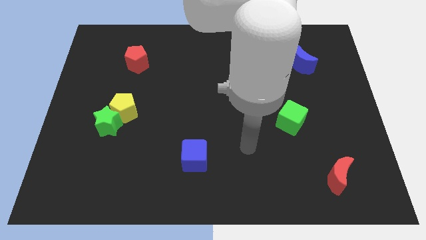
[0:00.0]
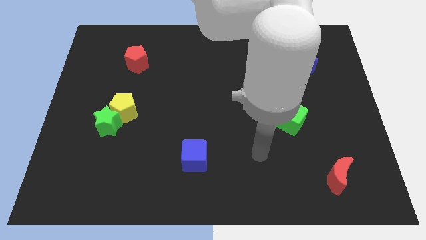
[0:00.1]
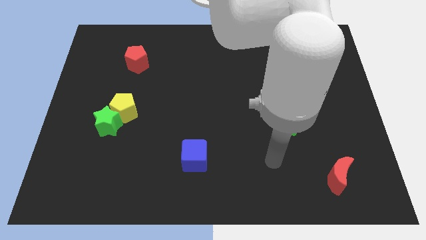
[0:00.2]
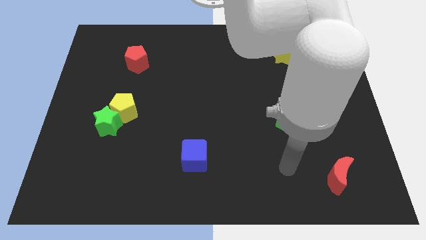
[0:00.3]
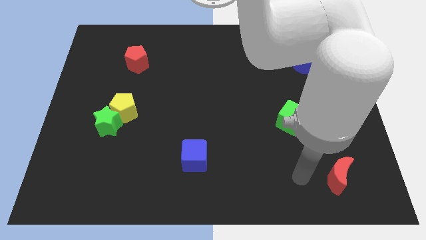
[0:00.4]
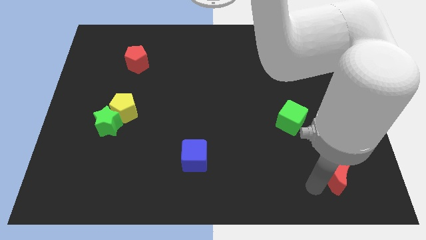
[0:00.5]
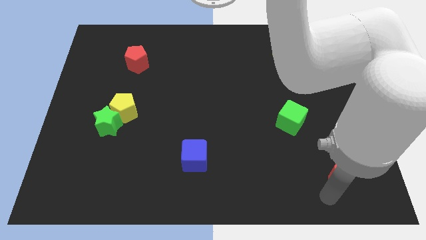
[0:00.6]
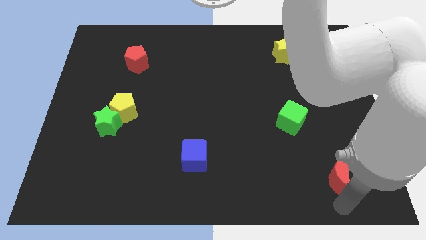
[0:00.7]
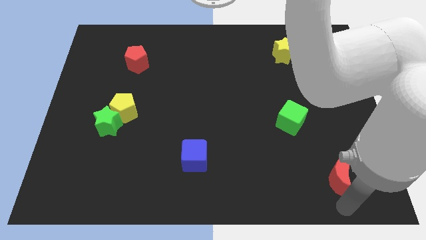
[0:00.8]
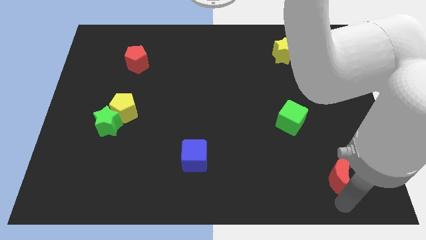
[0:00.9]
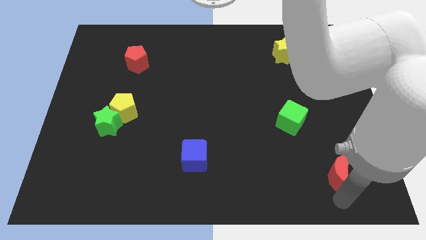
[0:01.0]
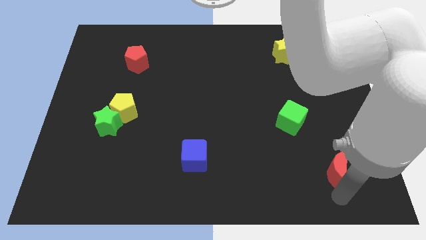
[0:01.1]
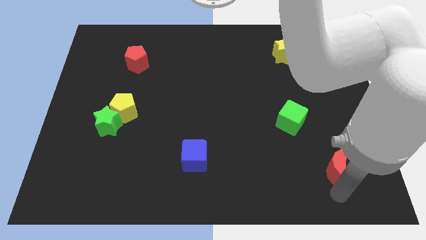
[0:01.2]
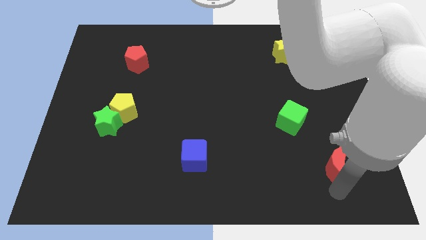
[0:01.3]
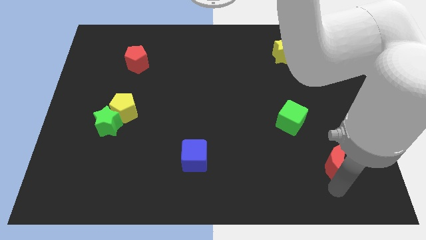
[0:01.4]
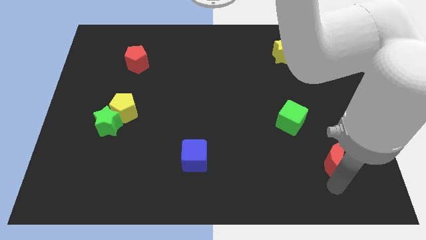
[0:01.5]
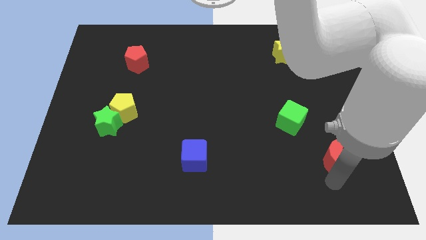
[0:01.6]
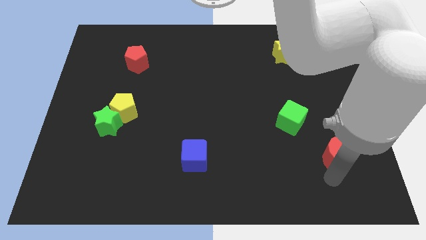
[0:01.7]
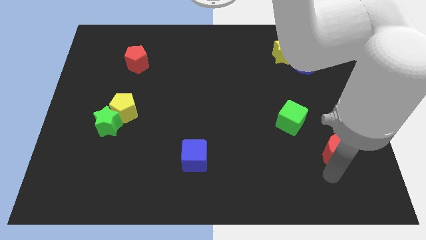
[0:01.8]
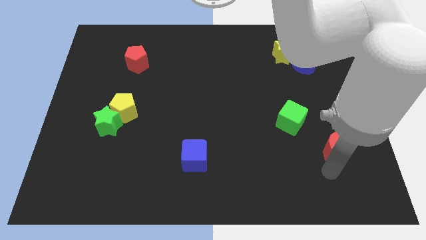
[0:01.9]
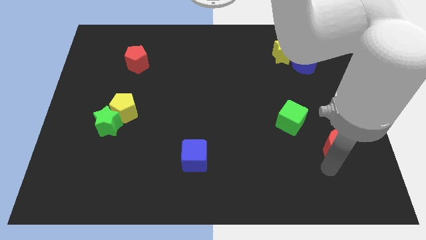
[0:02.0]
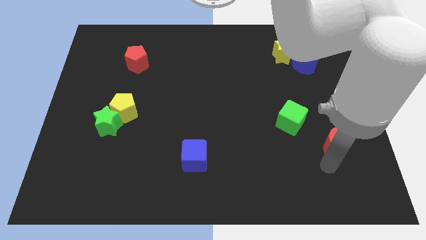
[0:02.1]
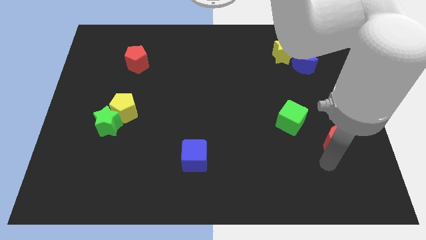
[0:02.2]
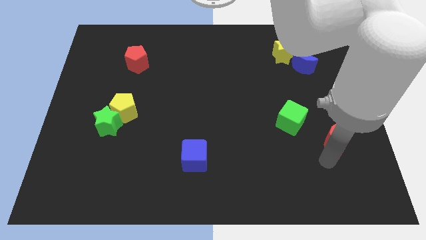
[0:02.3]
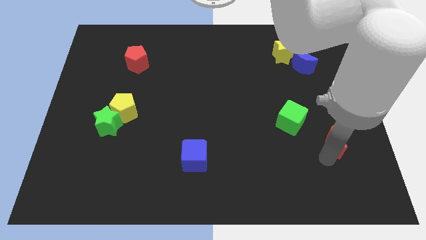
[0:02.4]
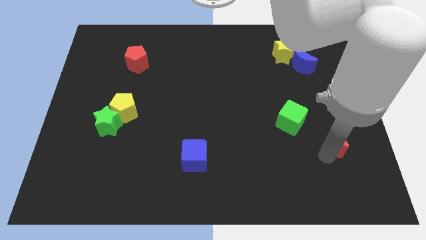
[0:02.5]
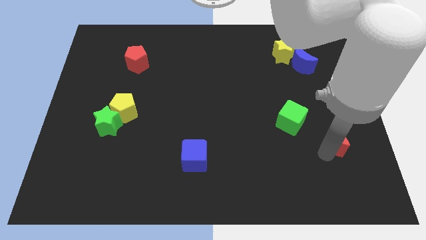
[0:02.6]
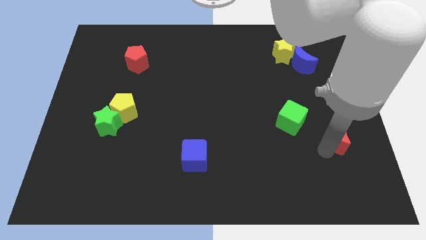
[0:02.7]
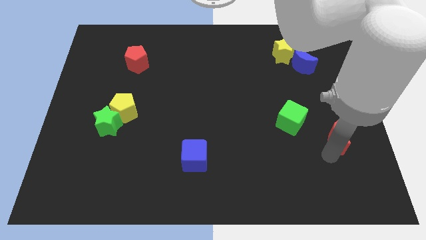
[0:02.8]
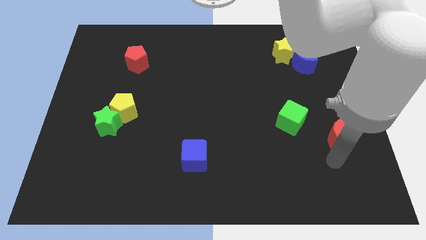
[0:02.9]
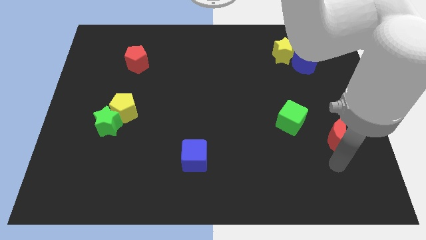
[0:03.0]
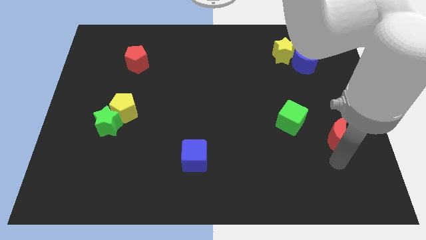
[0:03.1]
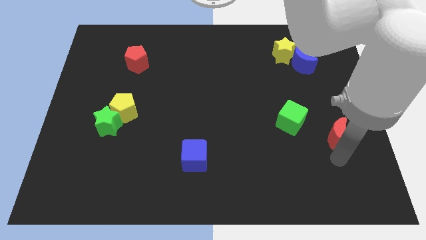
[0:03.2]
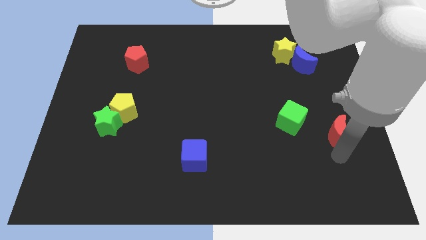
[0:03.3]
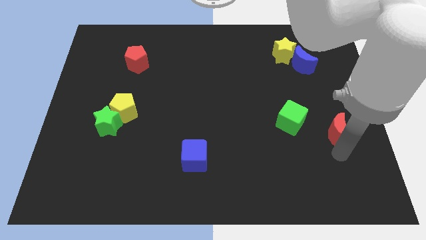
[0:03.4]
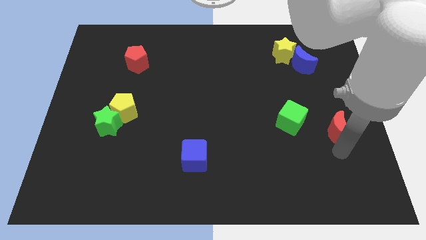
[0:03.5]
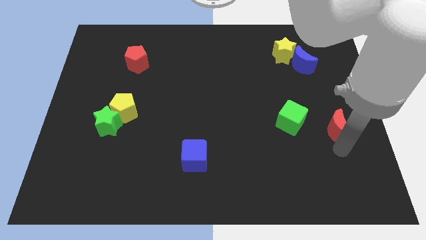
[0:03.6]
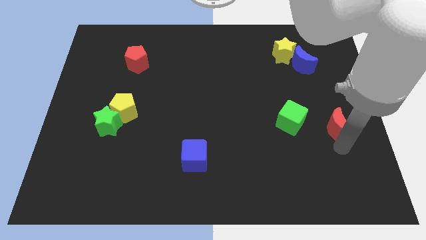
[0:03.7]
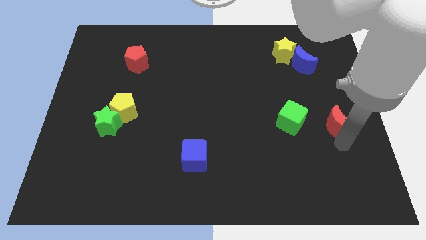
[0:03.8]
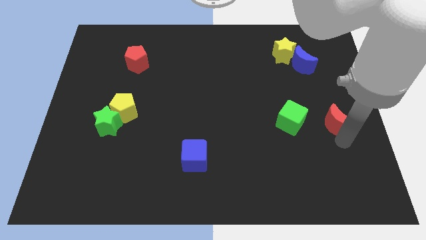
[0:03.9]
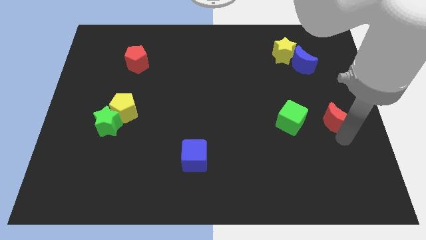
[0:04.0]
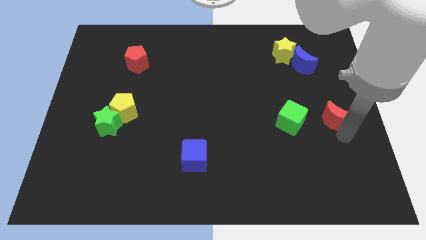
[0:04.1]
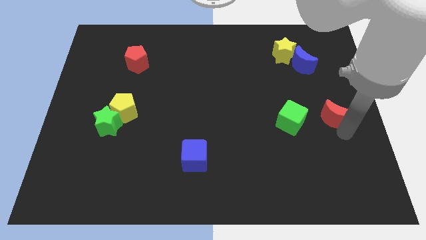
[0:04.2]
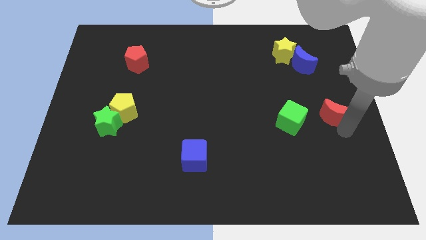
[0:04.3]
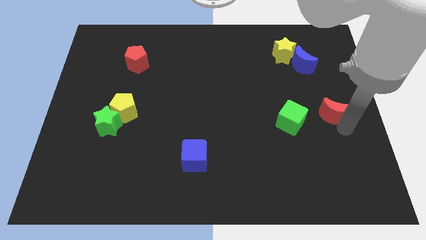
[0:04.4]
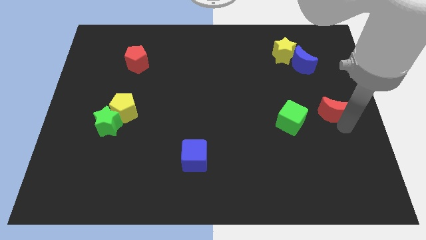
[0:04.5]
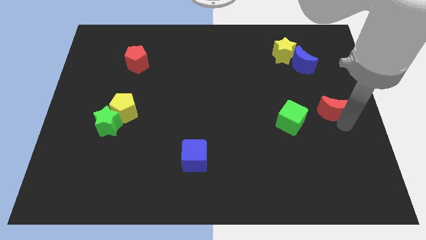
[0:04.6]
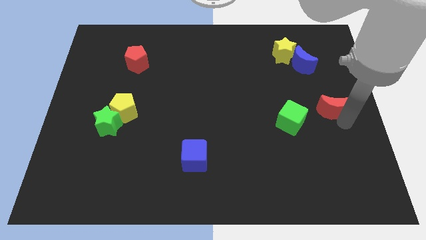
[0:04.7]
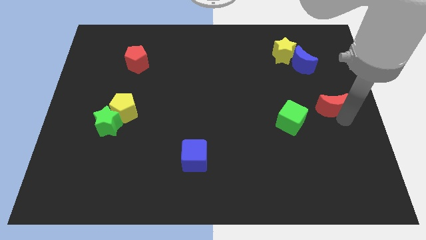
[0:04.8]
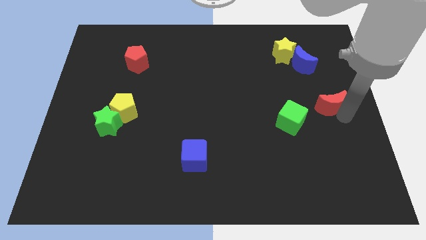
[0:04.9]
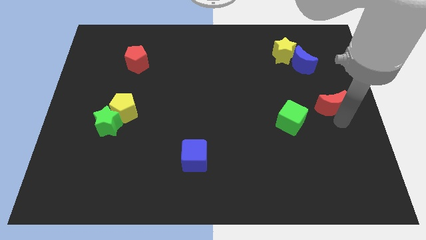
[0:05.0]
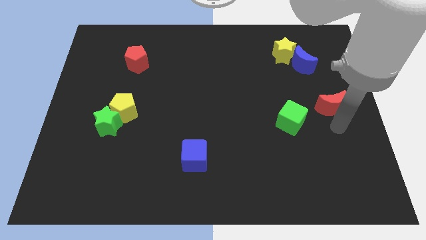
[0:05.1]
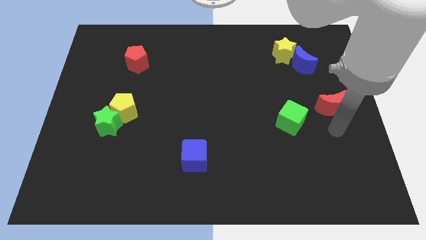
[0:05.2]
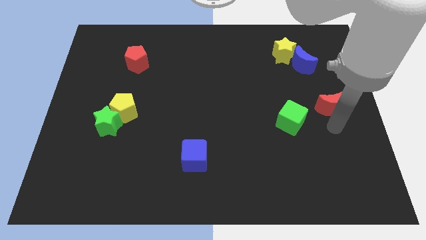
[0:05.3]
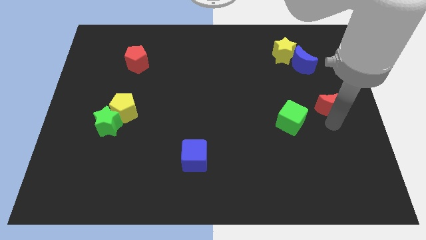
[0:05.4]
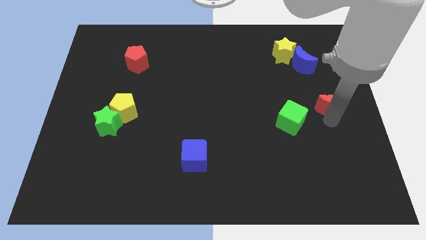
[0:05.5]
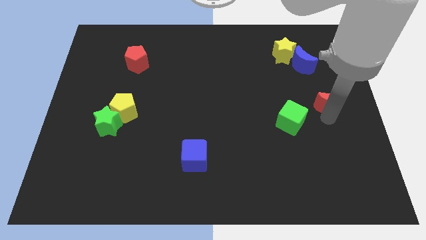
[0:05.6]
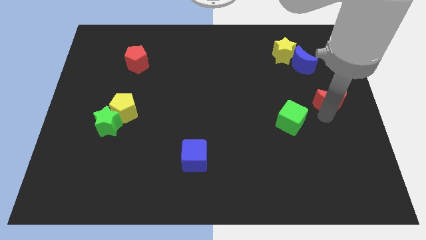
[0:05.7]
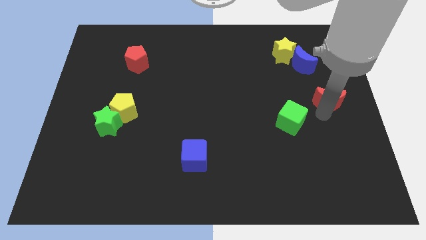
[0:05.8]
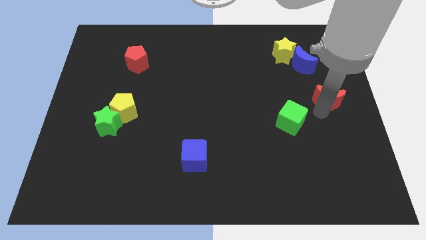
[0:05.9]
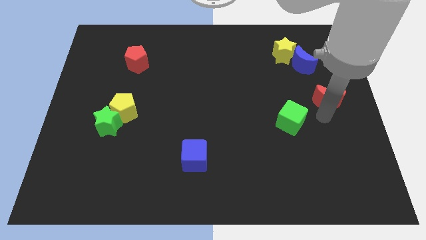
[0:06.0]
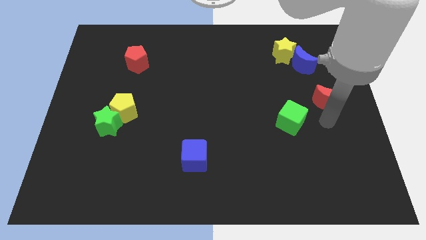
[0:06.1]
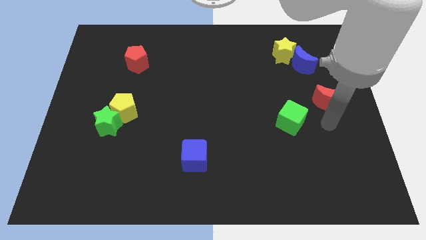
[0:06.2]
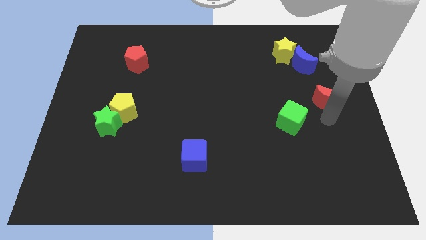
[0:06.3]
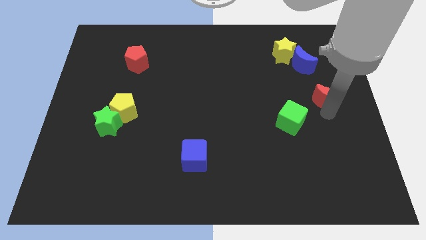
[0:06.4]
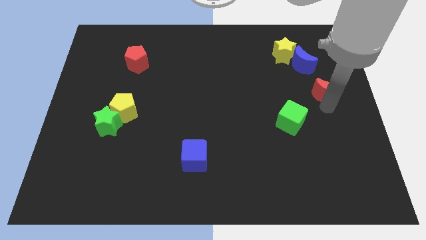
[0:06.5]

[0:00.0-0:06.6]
move the red moon diagonally down and to the right of the blue moon
